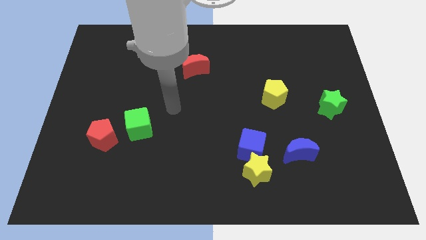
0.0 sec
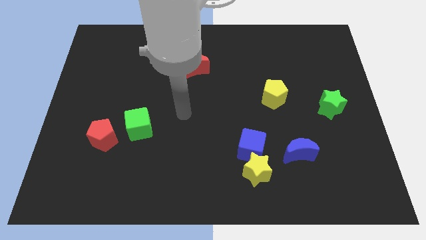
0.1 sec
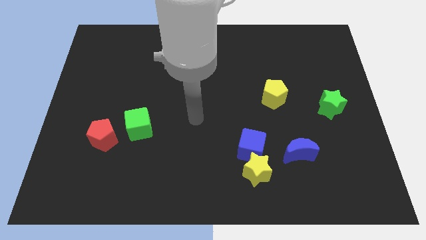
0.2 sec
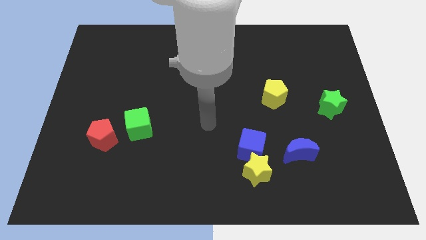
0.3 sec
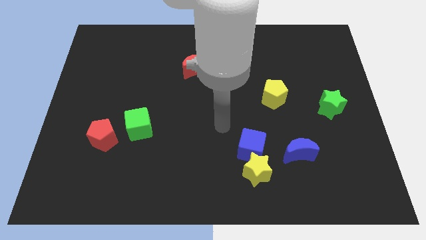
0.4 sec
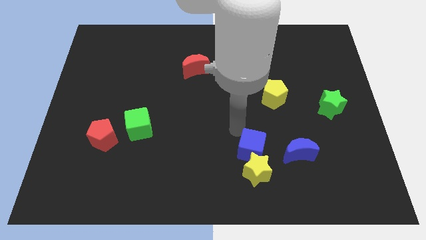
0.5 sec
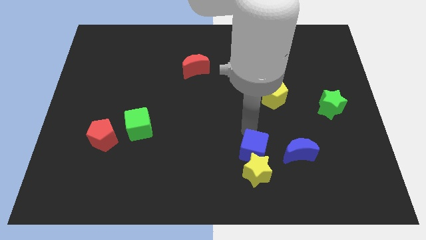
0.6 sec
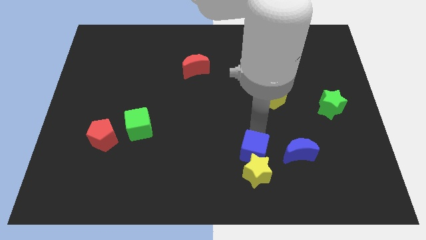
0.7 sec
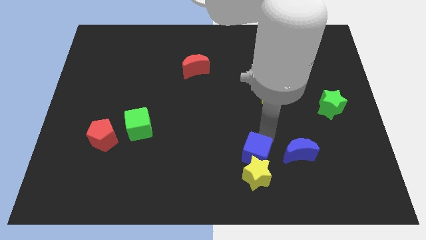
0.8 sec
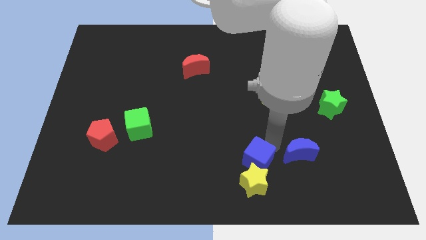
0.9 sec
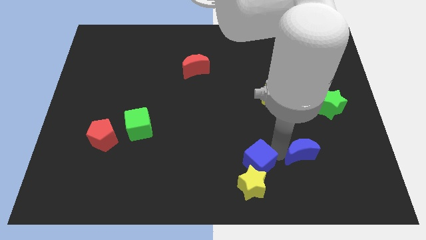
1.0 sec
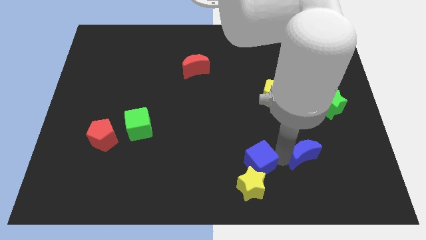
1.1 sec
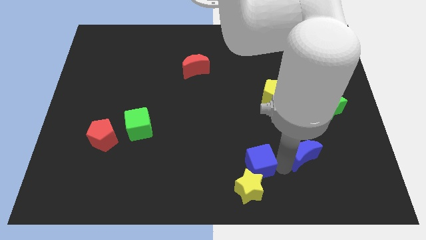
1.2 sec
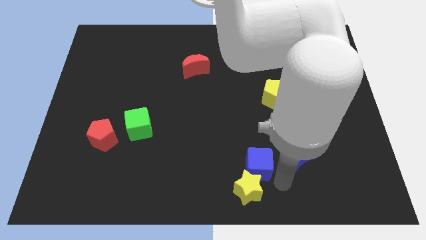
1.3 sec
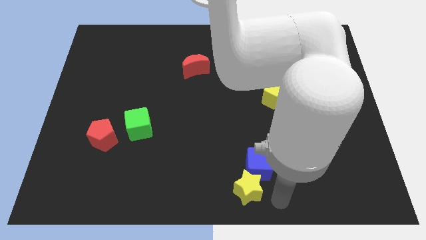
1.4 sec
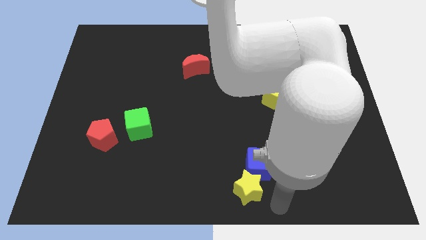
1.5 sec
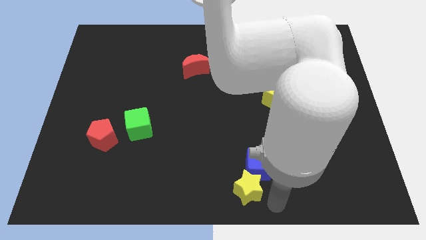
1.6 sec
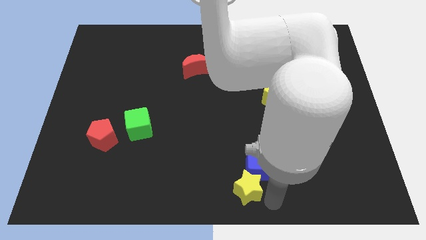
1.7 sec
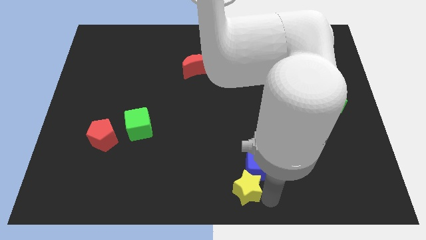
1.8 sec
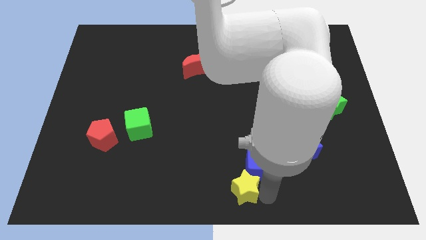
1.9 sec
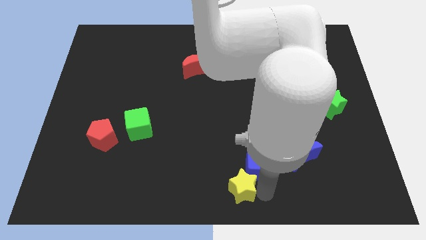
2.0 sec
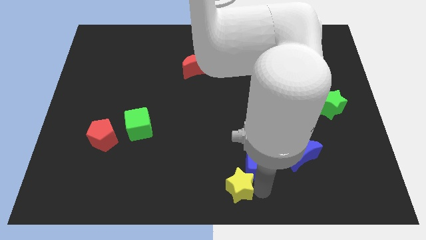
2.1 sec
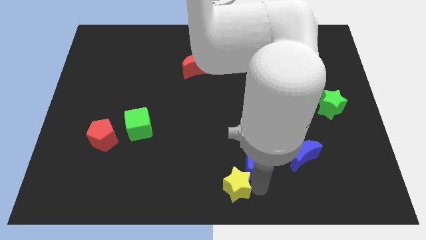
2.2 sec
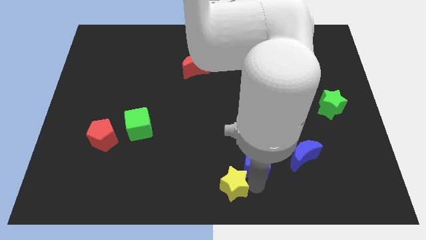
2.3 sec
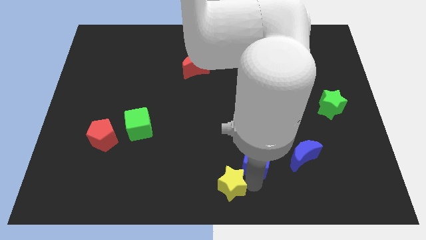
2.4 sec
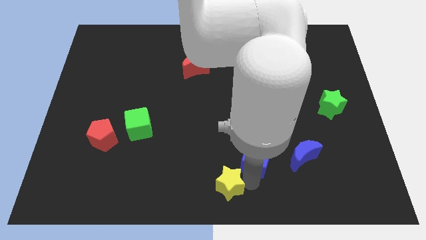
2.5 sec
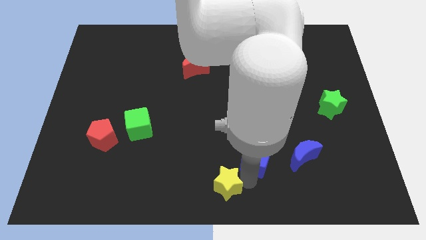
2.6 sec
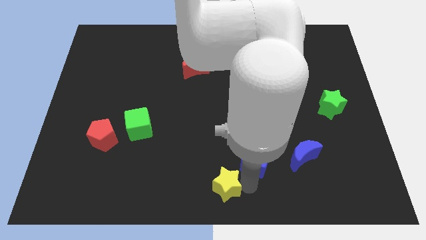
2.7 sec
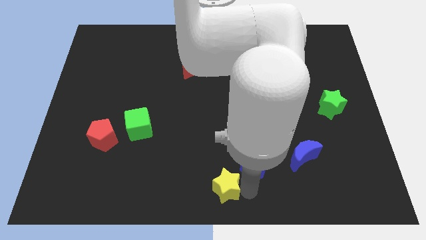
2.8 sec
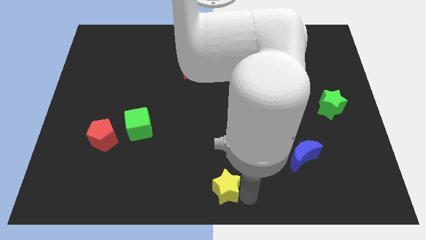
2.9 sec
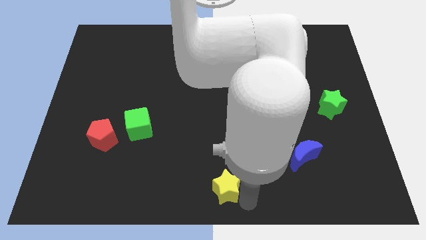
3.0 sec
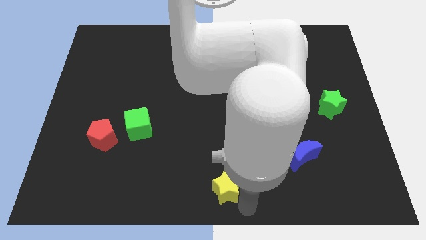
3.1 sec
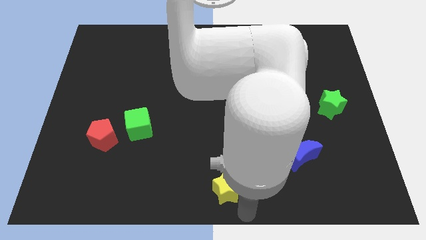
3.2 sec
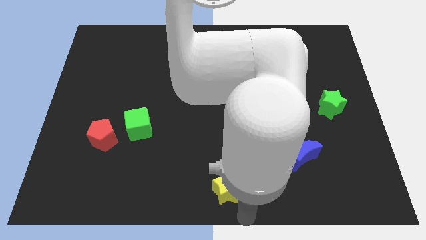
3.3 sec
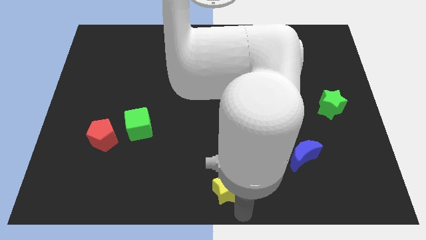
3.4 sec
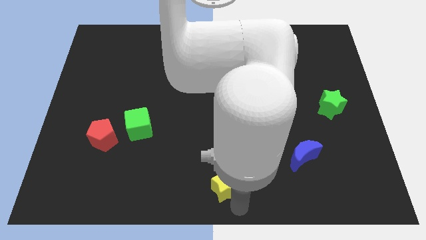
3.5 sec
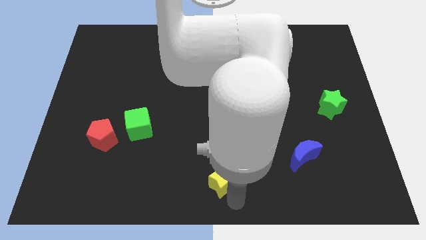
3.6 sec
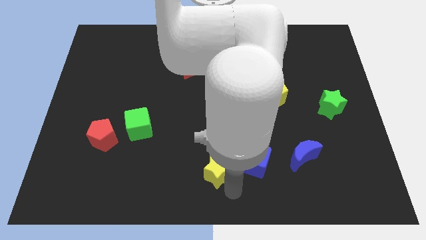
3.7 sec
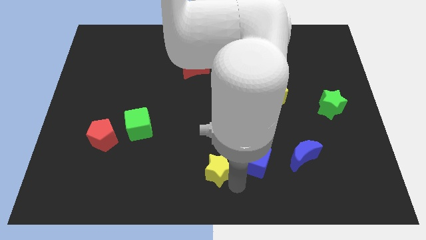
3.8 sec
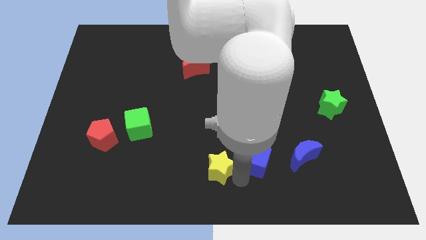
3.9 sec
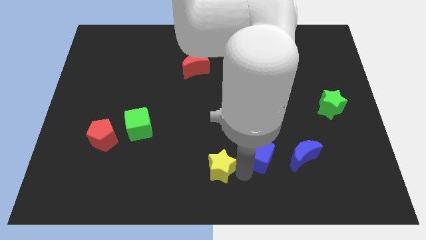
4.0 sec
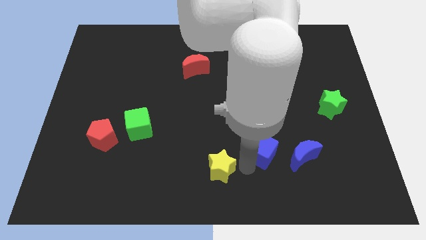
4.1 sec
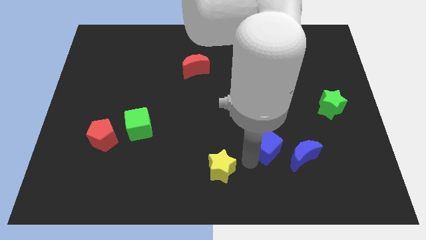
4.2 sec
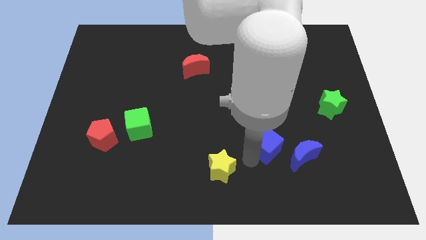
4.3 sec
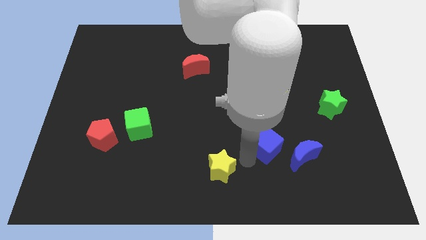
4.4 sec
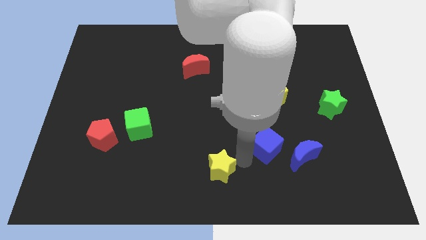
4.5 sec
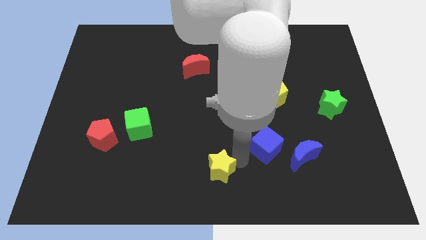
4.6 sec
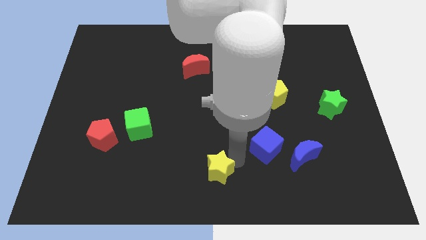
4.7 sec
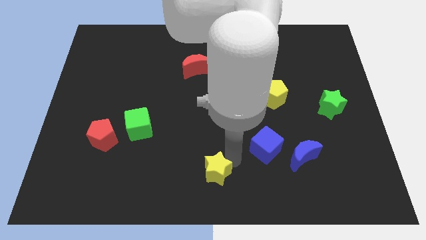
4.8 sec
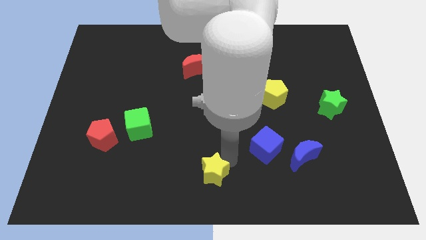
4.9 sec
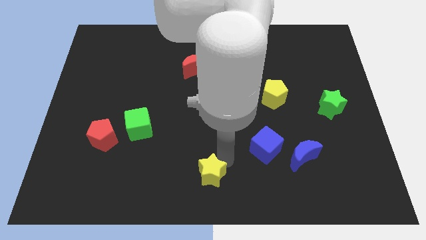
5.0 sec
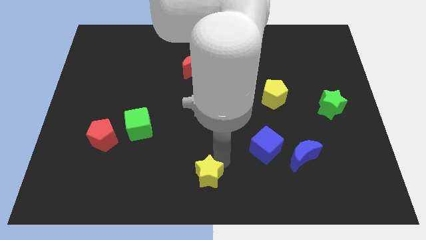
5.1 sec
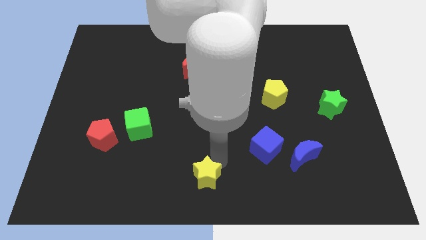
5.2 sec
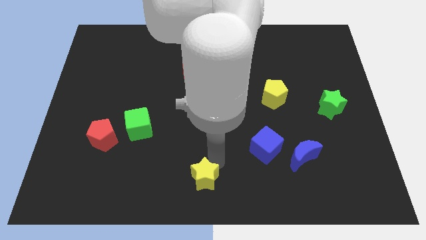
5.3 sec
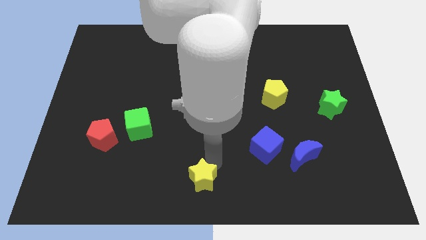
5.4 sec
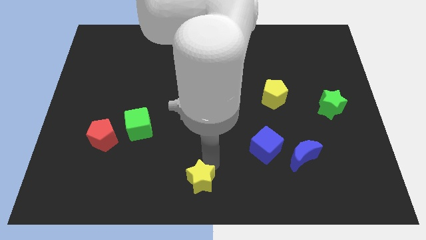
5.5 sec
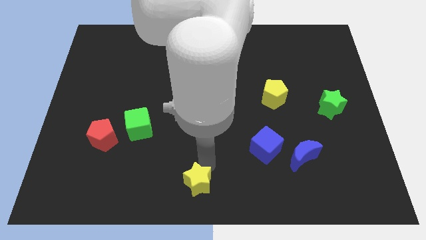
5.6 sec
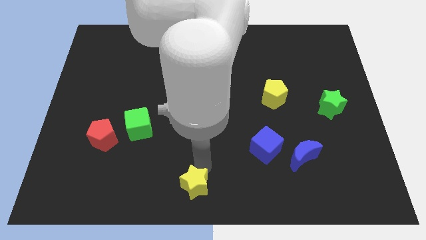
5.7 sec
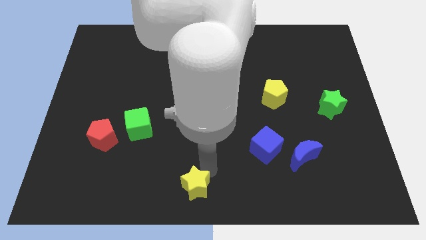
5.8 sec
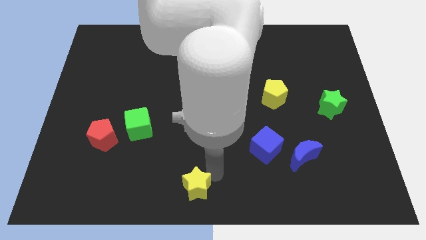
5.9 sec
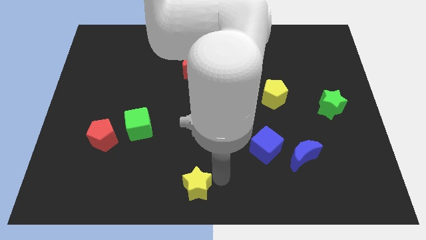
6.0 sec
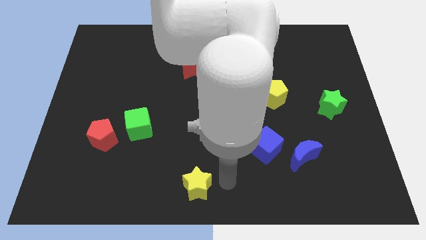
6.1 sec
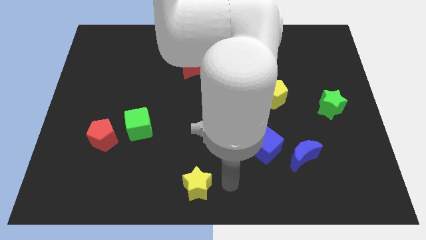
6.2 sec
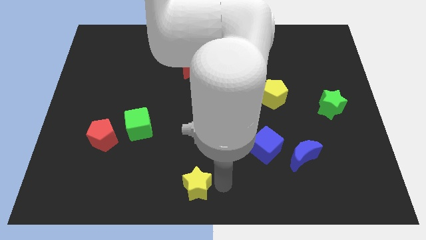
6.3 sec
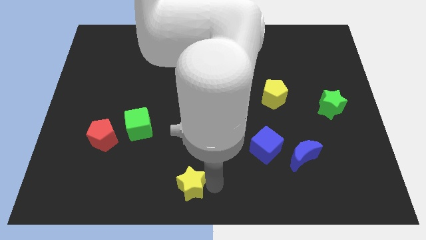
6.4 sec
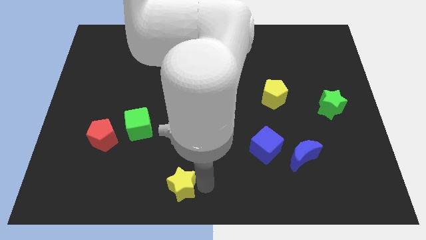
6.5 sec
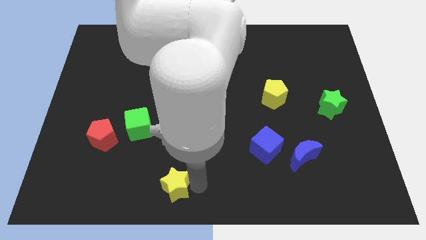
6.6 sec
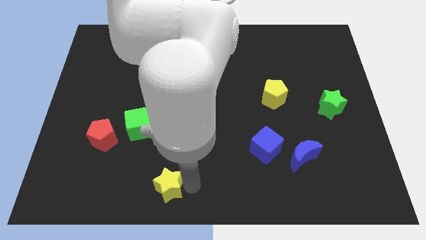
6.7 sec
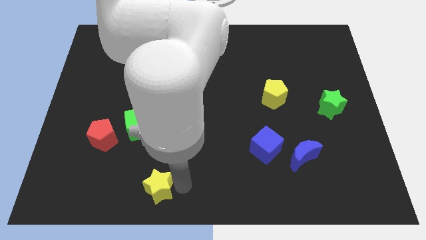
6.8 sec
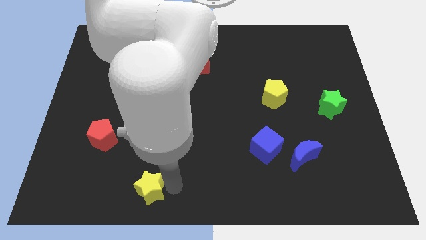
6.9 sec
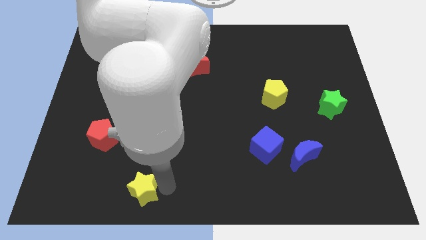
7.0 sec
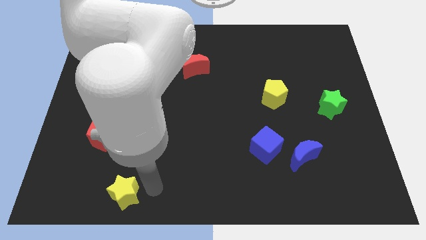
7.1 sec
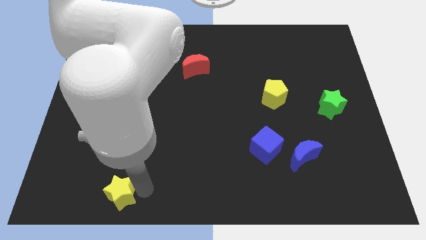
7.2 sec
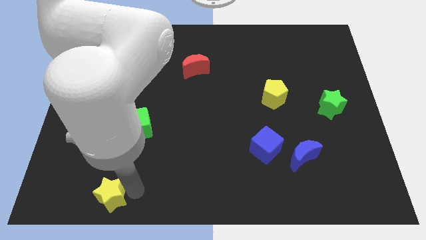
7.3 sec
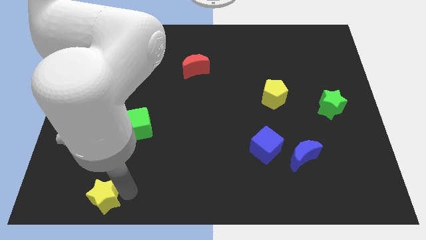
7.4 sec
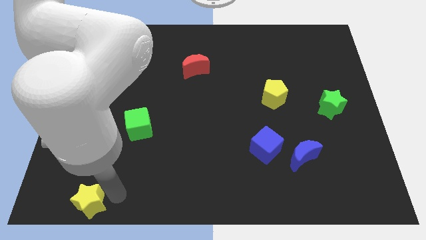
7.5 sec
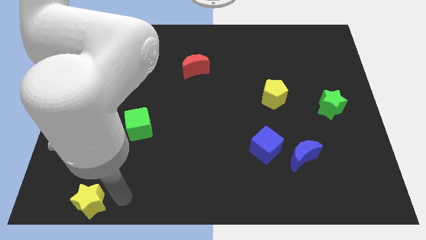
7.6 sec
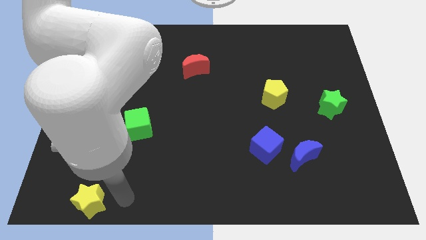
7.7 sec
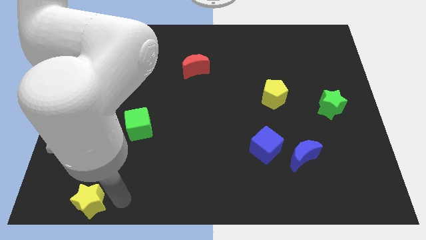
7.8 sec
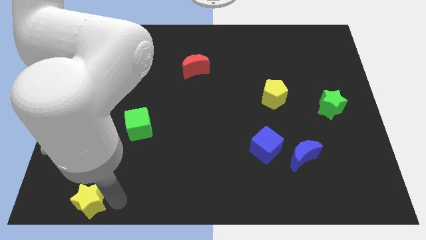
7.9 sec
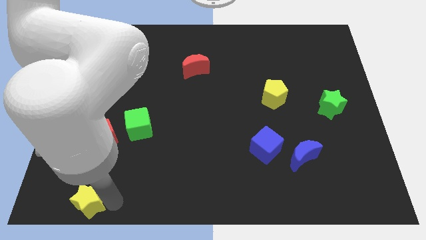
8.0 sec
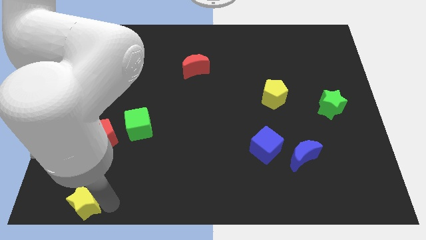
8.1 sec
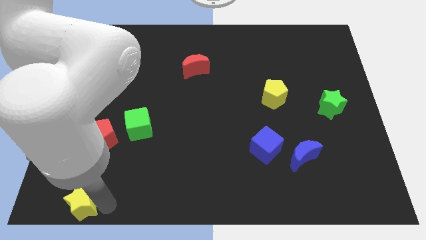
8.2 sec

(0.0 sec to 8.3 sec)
push the yellow star to the lower left corner
